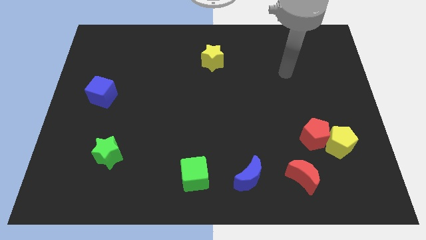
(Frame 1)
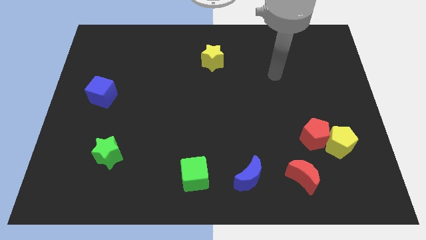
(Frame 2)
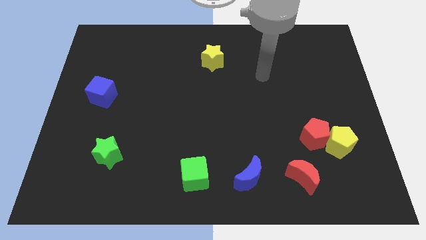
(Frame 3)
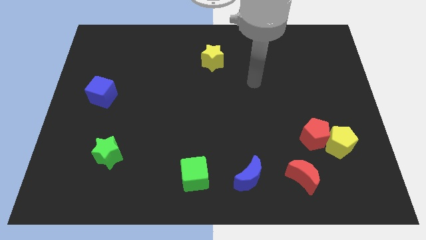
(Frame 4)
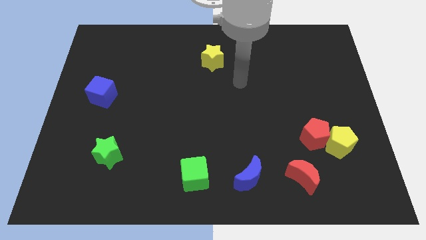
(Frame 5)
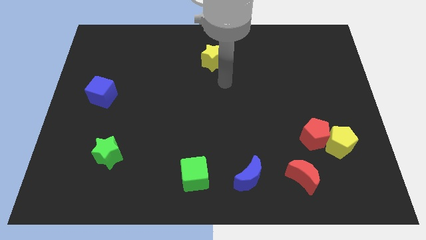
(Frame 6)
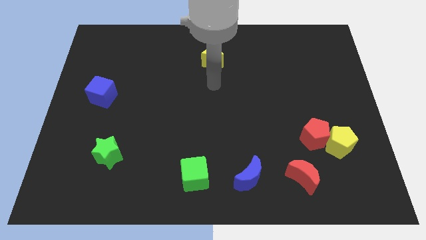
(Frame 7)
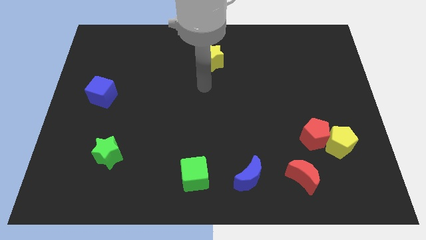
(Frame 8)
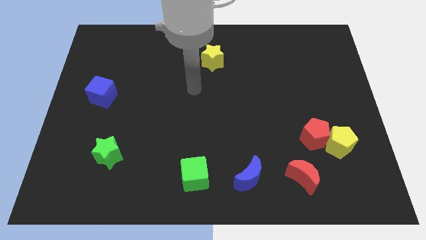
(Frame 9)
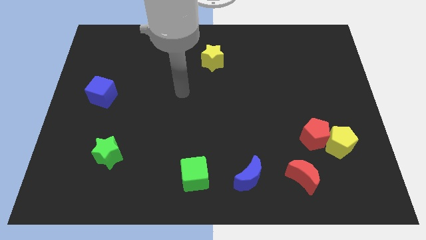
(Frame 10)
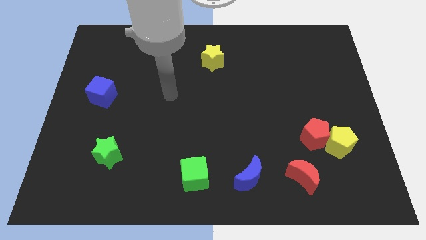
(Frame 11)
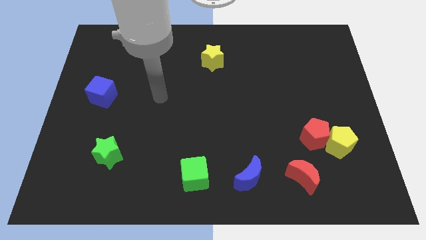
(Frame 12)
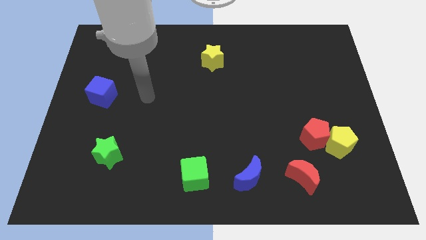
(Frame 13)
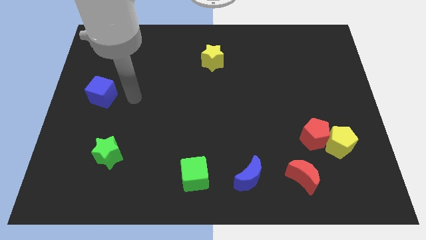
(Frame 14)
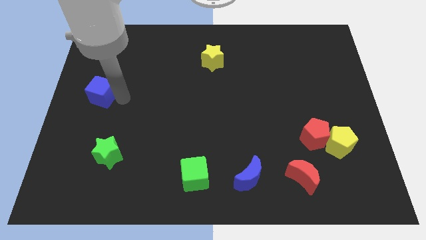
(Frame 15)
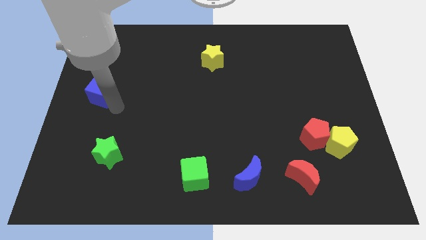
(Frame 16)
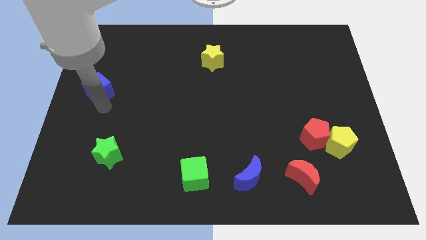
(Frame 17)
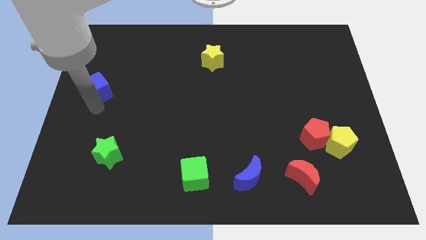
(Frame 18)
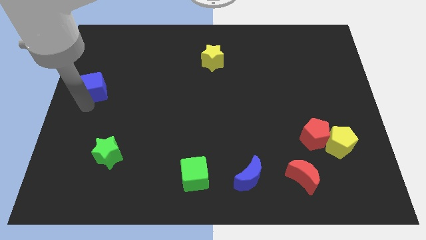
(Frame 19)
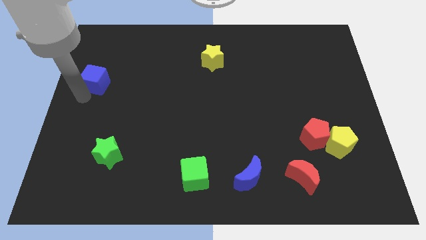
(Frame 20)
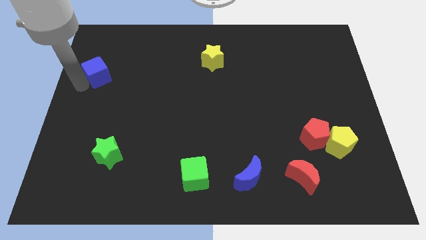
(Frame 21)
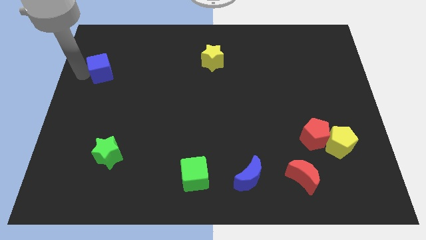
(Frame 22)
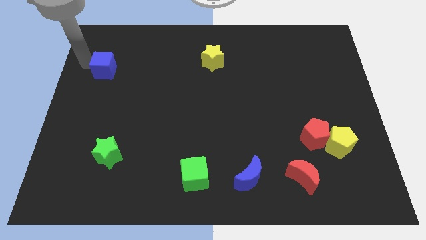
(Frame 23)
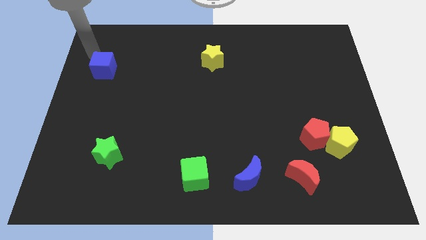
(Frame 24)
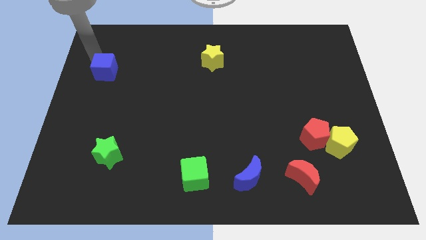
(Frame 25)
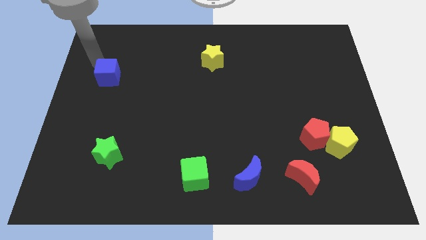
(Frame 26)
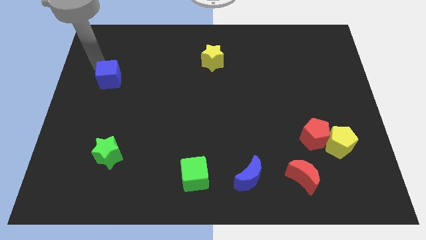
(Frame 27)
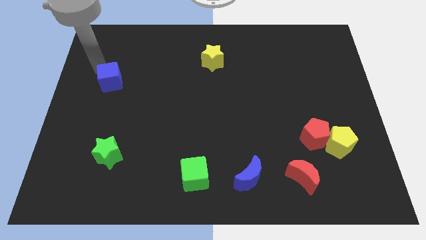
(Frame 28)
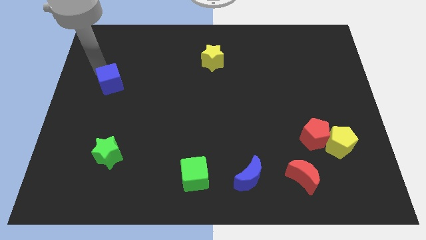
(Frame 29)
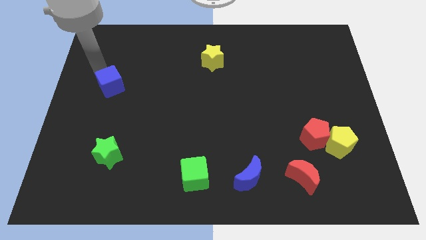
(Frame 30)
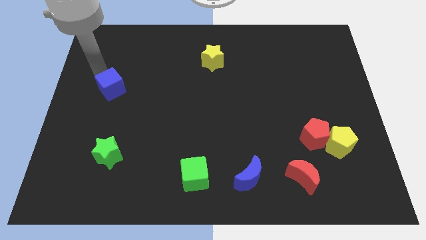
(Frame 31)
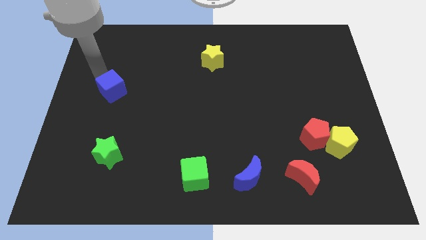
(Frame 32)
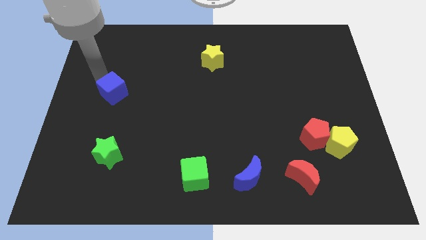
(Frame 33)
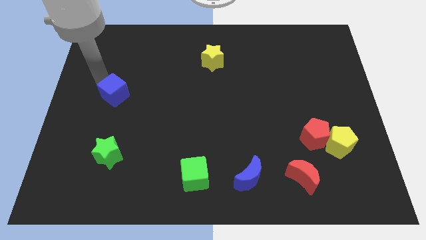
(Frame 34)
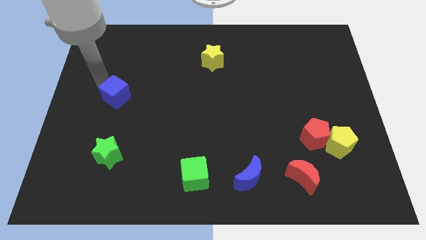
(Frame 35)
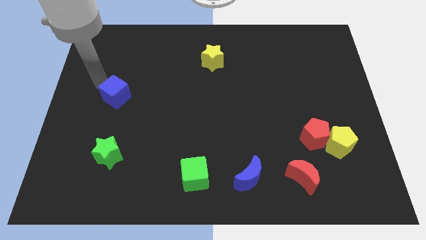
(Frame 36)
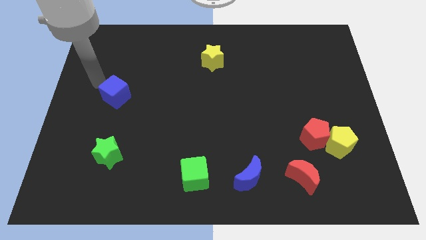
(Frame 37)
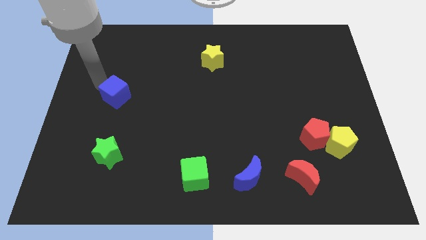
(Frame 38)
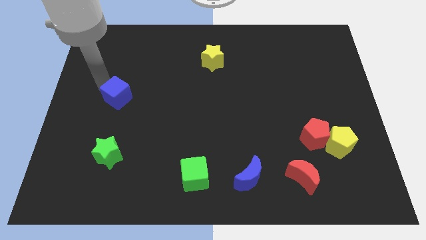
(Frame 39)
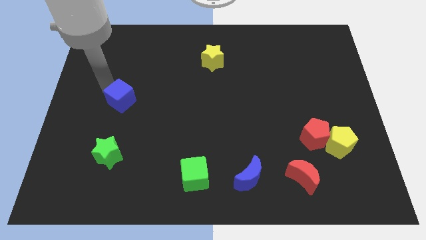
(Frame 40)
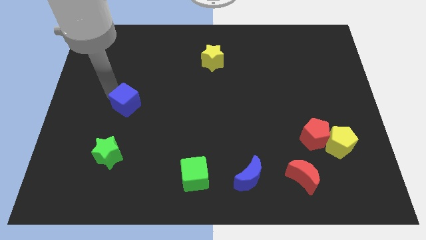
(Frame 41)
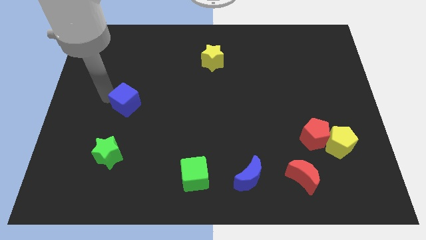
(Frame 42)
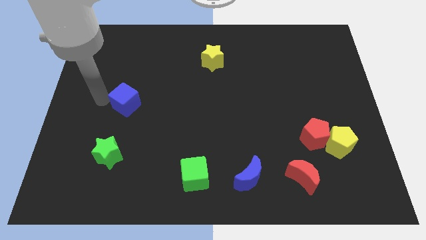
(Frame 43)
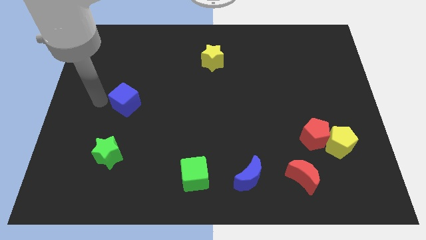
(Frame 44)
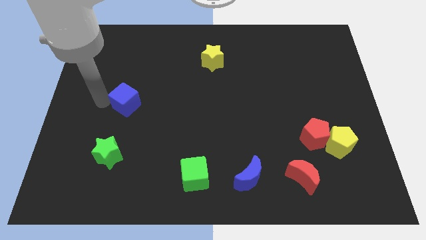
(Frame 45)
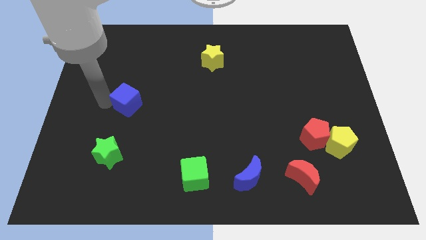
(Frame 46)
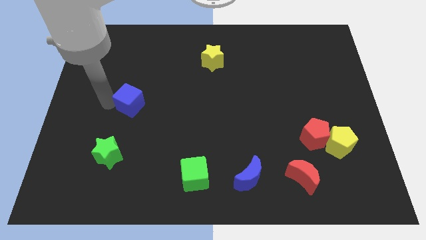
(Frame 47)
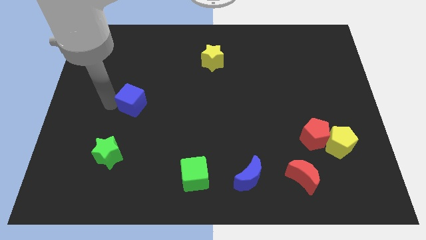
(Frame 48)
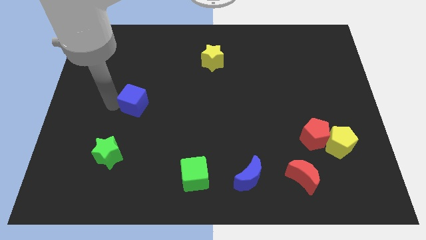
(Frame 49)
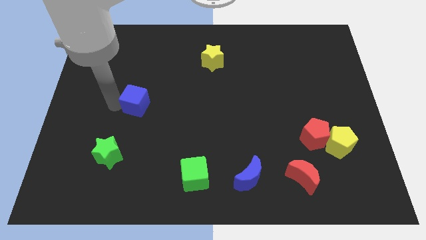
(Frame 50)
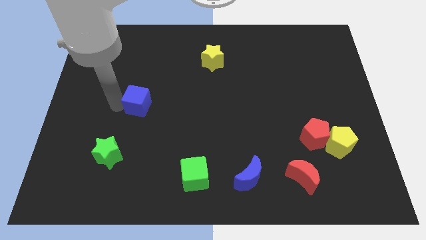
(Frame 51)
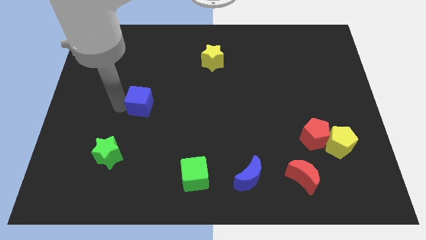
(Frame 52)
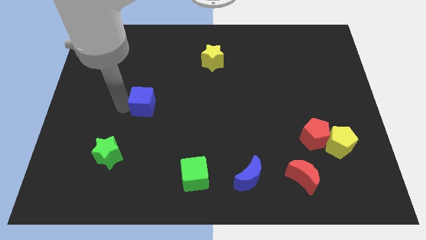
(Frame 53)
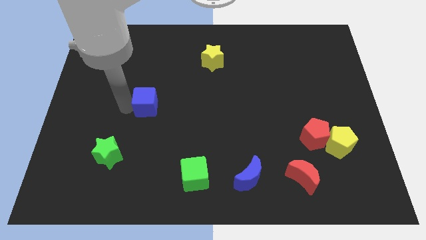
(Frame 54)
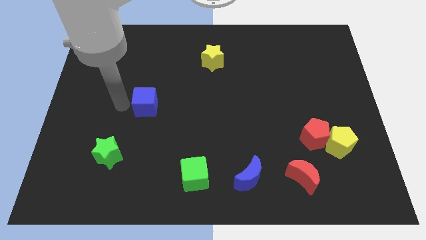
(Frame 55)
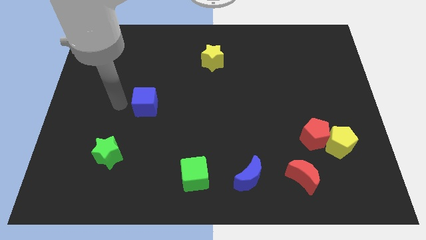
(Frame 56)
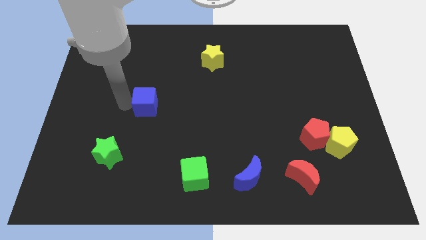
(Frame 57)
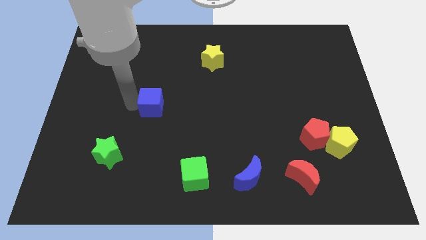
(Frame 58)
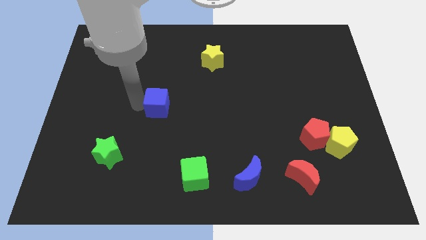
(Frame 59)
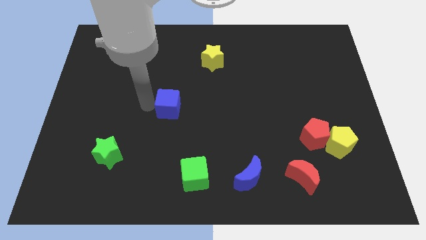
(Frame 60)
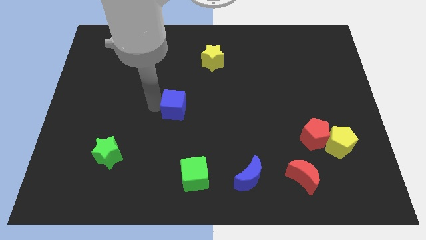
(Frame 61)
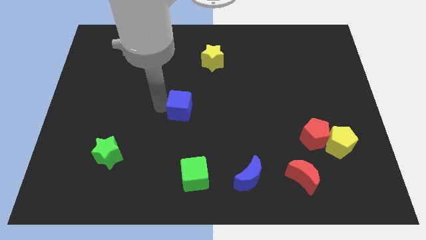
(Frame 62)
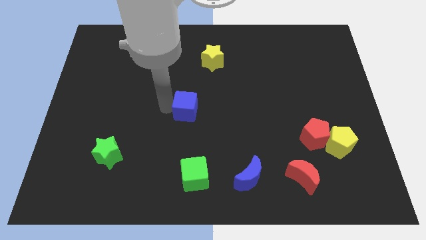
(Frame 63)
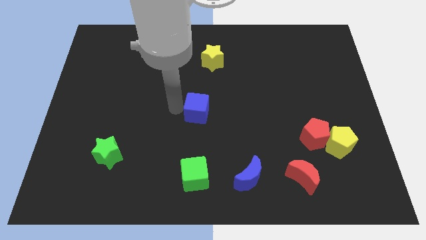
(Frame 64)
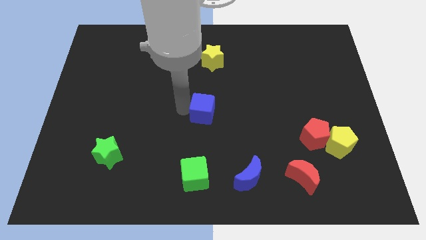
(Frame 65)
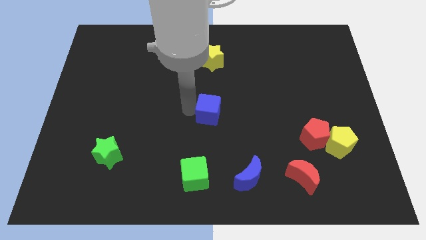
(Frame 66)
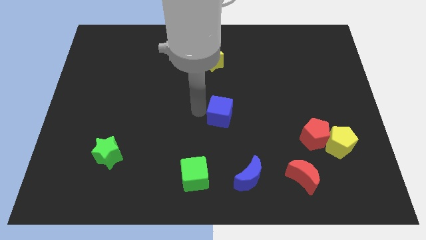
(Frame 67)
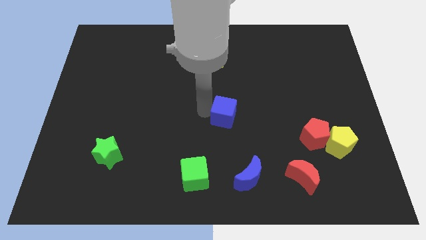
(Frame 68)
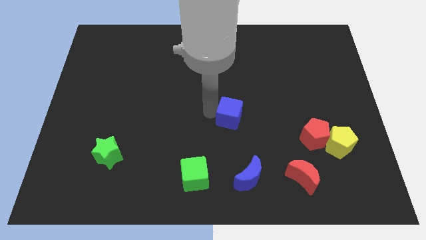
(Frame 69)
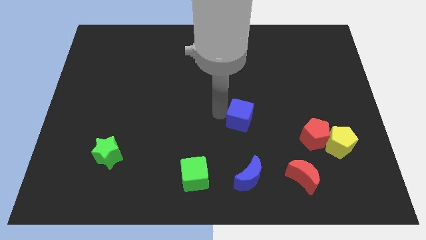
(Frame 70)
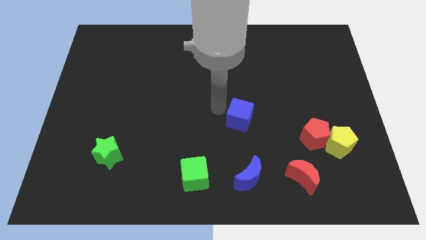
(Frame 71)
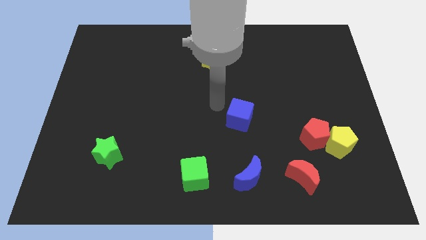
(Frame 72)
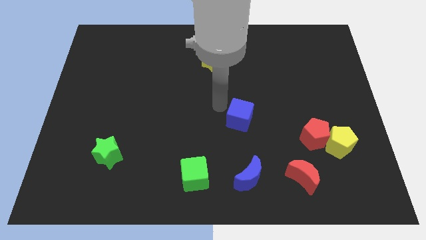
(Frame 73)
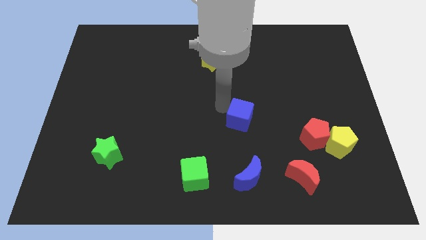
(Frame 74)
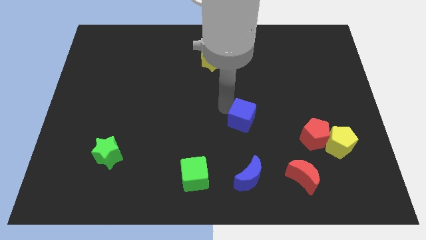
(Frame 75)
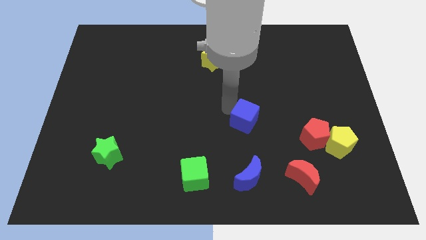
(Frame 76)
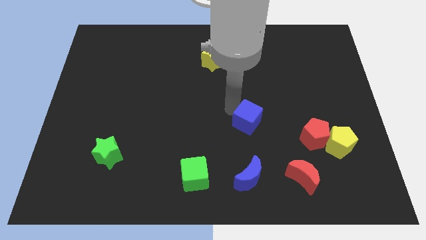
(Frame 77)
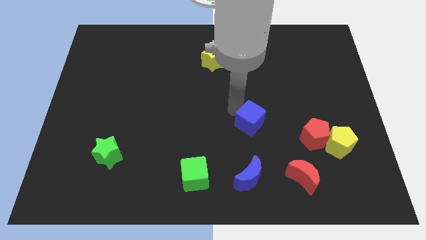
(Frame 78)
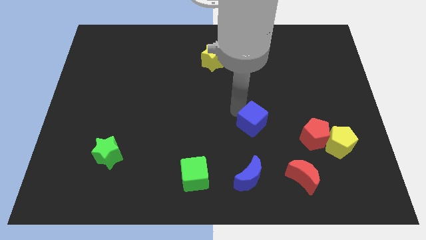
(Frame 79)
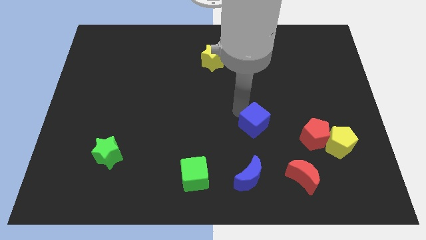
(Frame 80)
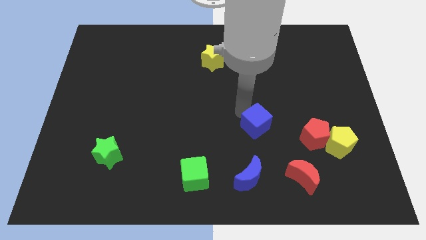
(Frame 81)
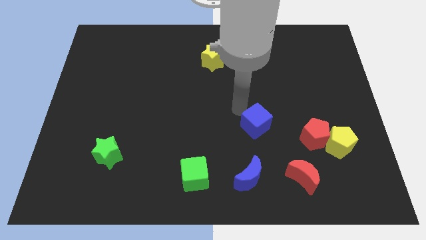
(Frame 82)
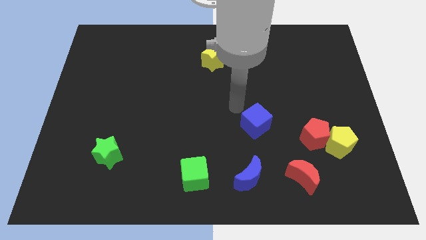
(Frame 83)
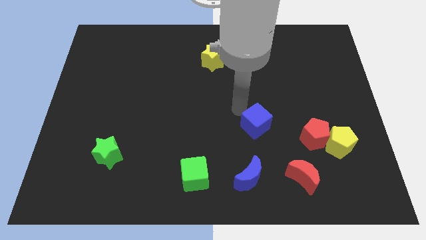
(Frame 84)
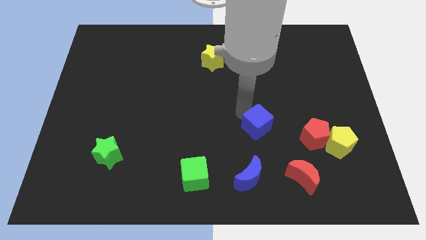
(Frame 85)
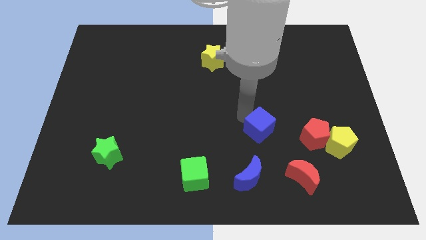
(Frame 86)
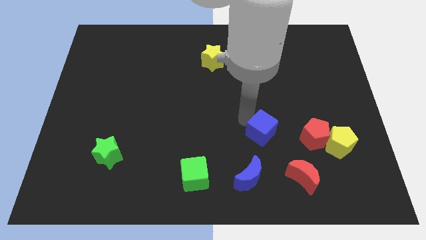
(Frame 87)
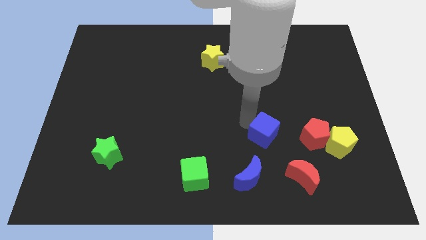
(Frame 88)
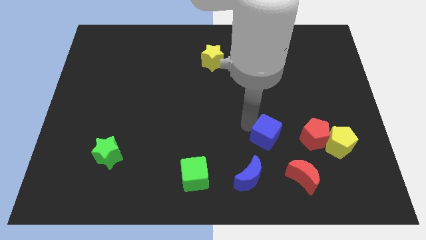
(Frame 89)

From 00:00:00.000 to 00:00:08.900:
move the blue cube left of the yellow pentagon
